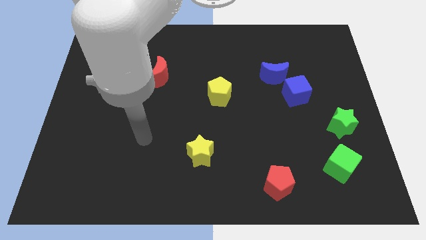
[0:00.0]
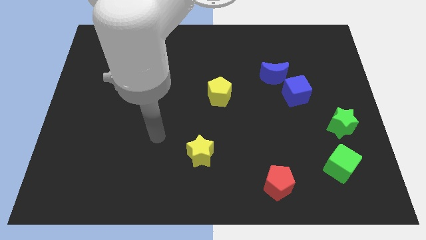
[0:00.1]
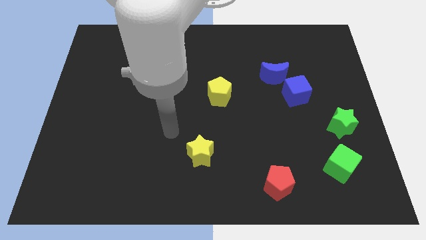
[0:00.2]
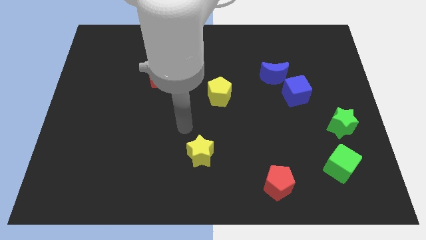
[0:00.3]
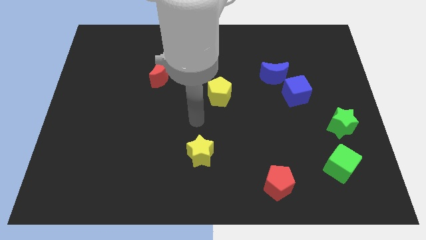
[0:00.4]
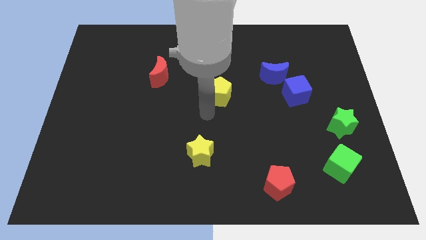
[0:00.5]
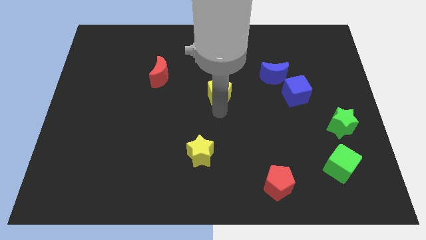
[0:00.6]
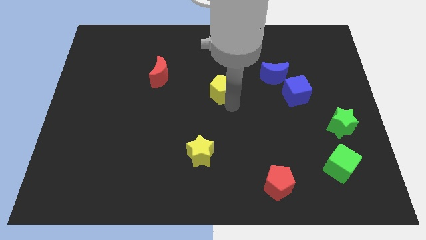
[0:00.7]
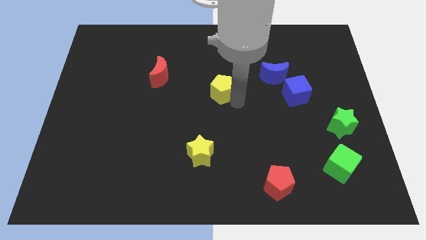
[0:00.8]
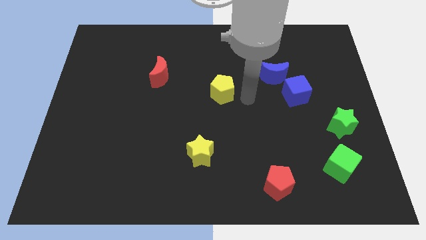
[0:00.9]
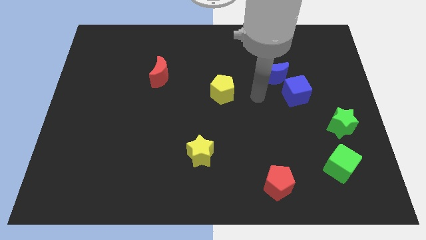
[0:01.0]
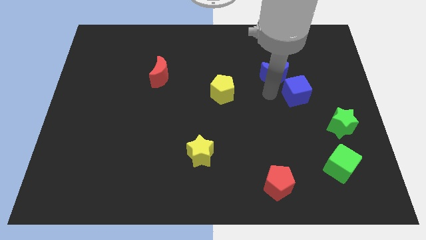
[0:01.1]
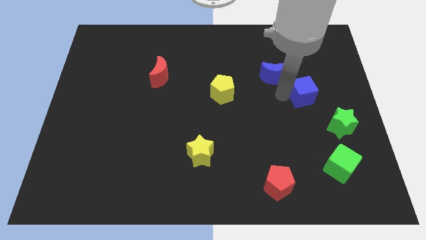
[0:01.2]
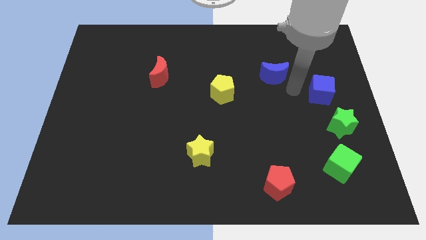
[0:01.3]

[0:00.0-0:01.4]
move the blue moon away from the blue cube

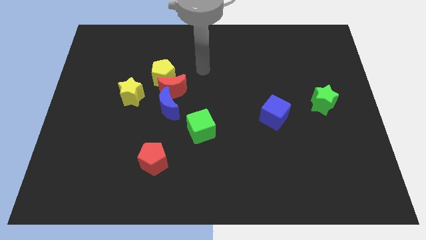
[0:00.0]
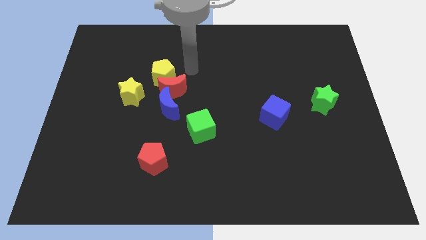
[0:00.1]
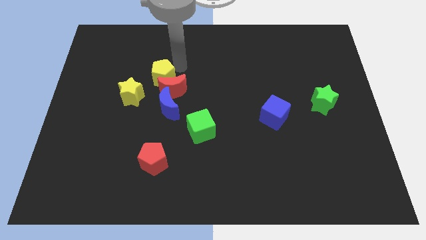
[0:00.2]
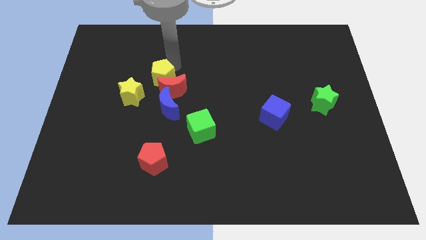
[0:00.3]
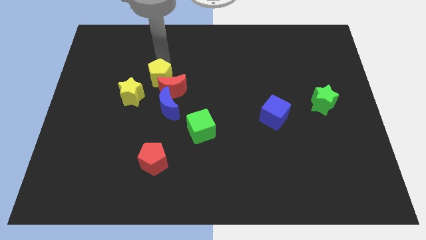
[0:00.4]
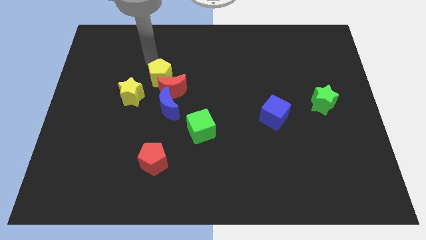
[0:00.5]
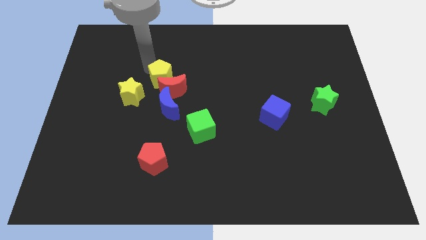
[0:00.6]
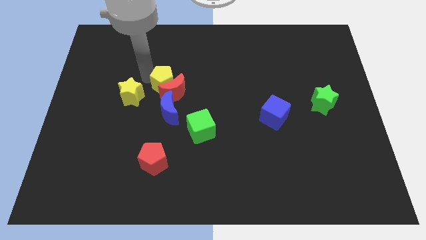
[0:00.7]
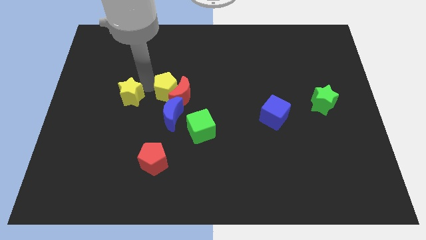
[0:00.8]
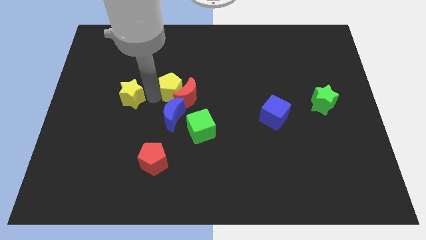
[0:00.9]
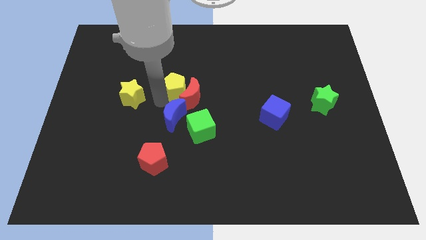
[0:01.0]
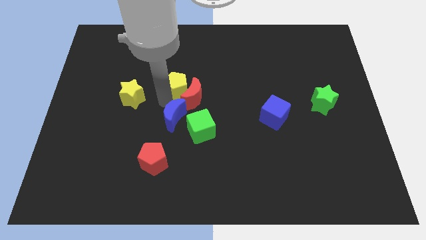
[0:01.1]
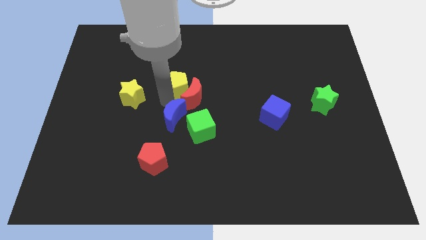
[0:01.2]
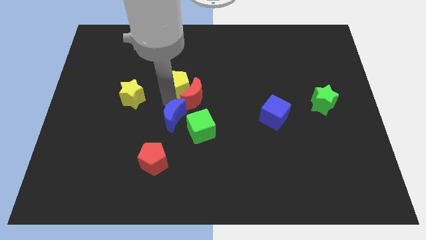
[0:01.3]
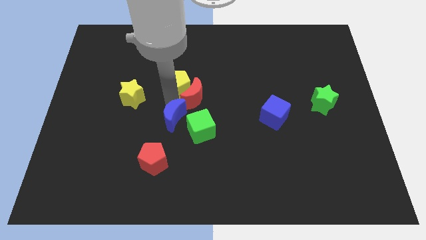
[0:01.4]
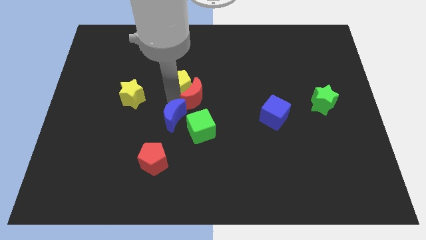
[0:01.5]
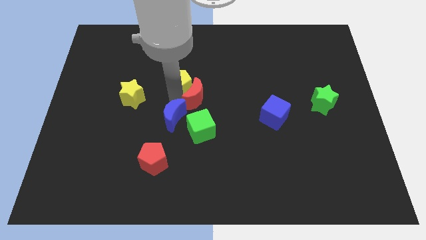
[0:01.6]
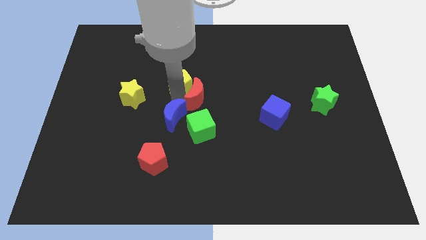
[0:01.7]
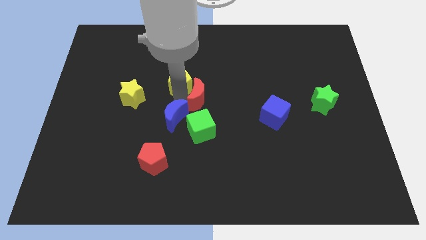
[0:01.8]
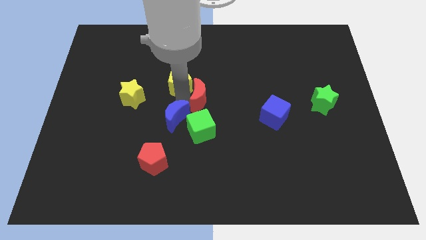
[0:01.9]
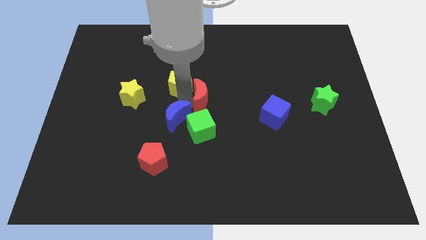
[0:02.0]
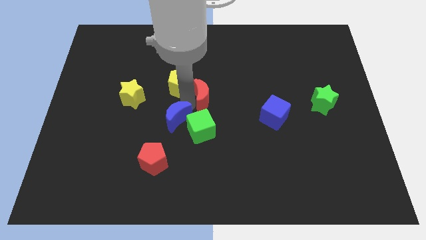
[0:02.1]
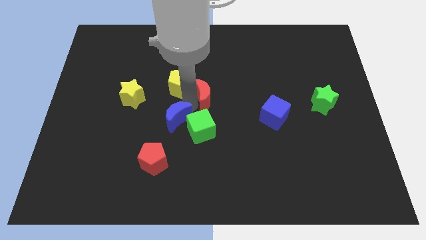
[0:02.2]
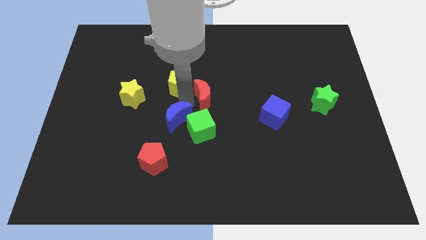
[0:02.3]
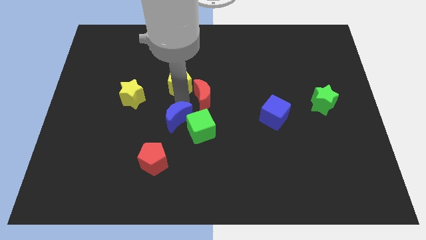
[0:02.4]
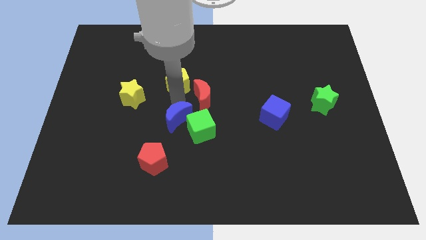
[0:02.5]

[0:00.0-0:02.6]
pull the red moon apart from the yellow pentagon, blue moon, and yellow star

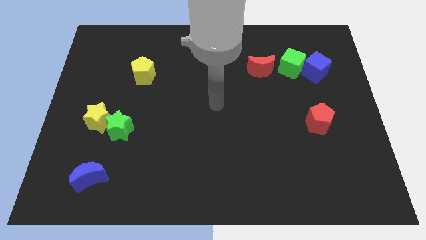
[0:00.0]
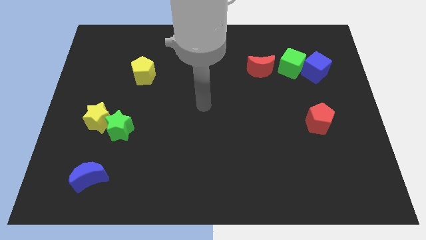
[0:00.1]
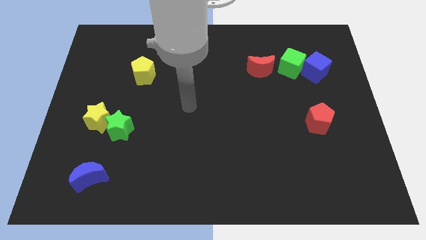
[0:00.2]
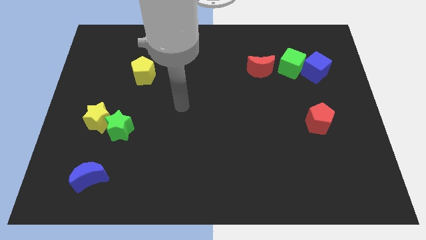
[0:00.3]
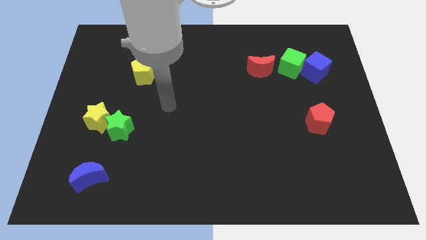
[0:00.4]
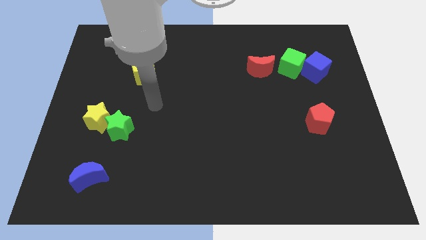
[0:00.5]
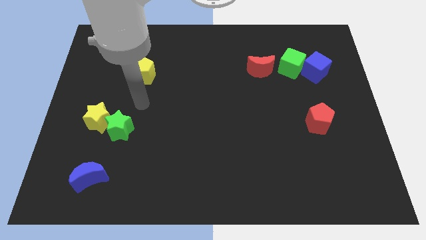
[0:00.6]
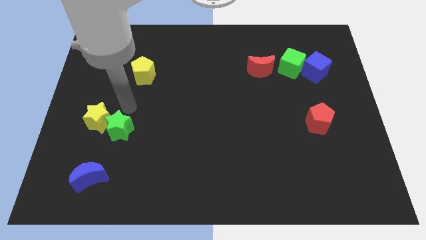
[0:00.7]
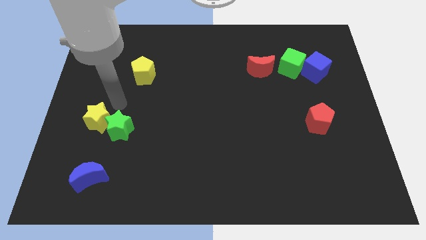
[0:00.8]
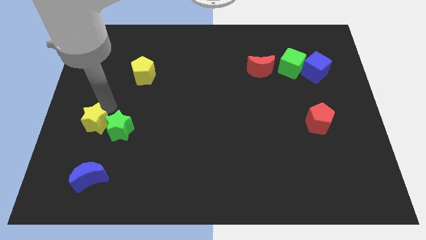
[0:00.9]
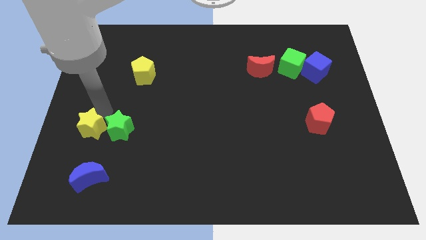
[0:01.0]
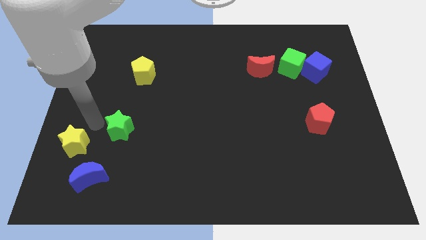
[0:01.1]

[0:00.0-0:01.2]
pull the green star apart from the yellow star

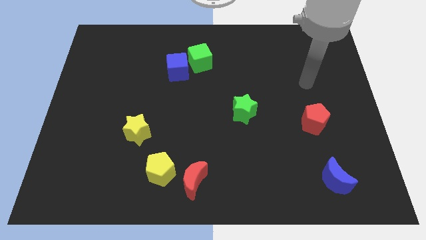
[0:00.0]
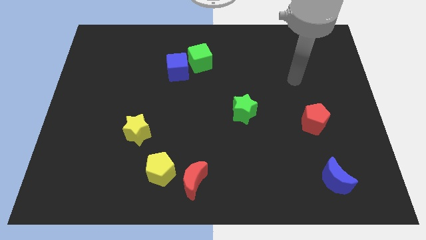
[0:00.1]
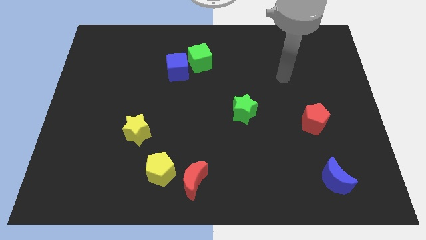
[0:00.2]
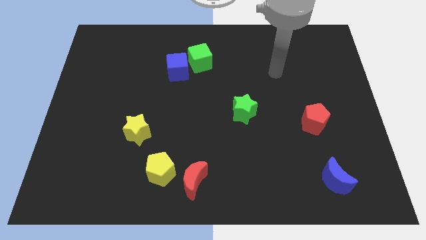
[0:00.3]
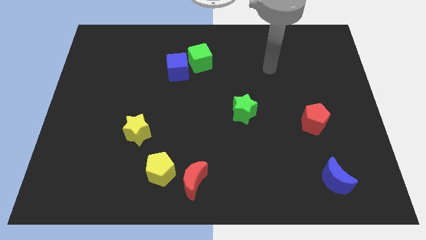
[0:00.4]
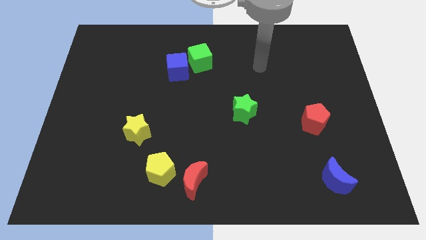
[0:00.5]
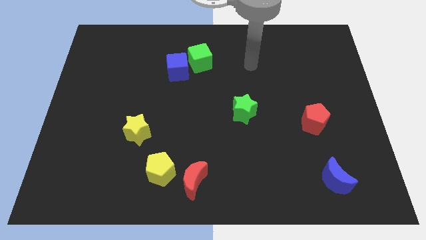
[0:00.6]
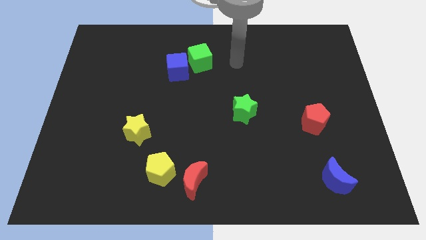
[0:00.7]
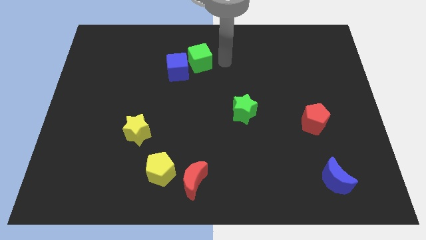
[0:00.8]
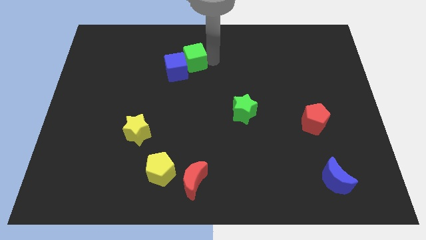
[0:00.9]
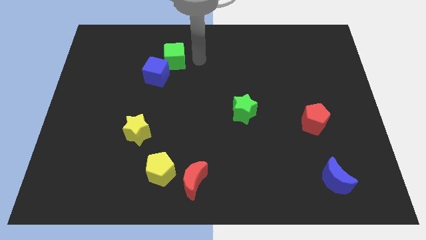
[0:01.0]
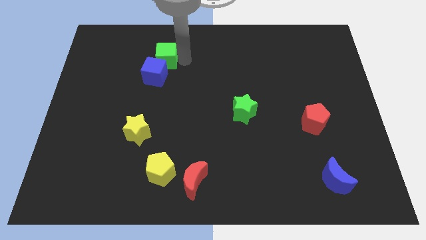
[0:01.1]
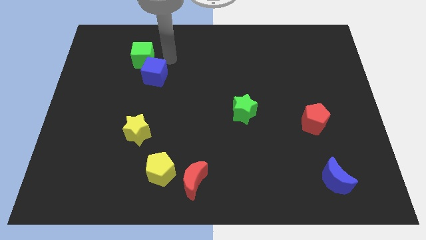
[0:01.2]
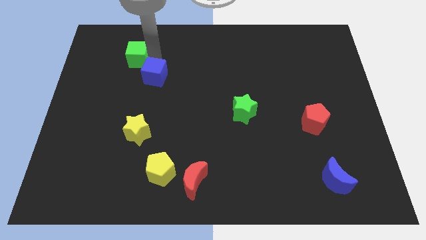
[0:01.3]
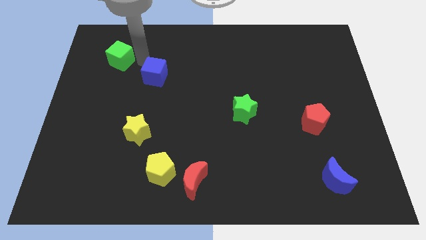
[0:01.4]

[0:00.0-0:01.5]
move the blue cube away from the green cube

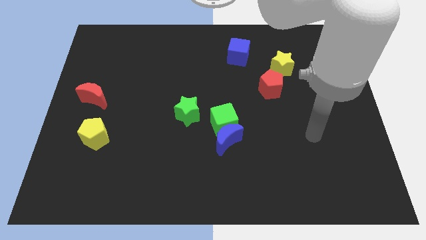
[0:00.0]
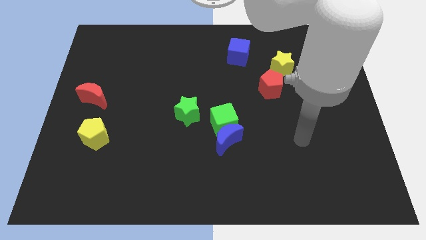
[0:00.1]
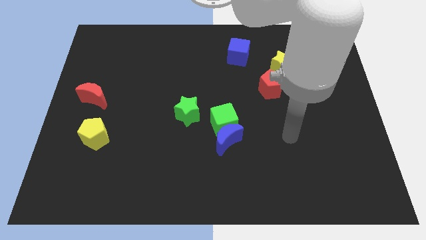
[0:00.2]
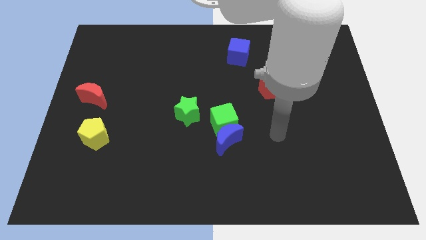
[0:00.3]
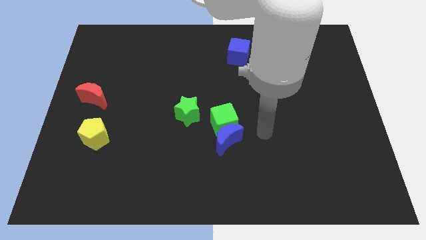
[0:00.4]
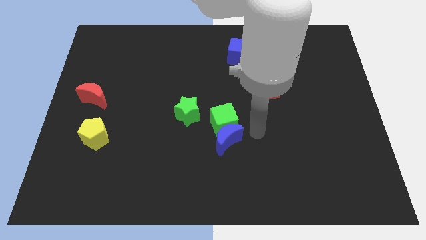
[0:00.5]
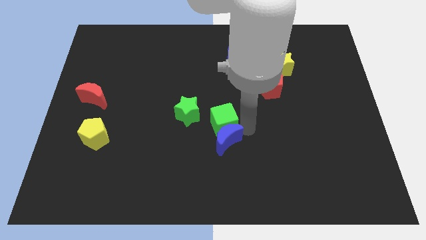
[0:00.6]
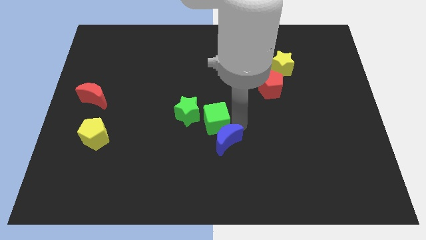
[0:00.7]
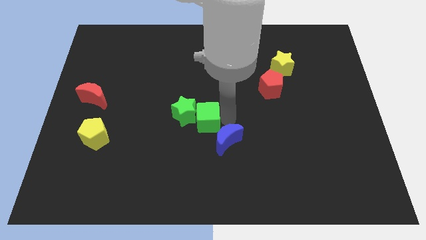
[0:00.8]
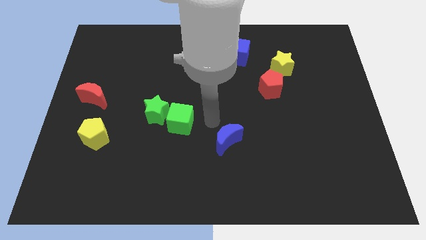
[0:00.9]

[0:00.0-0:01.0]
move the blue moon away from the green cube

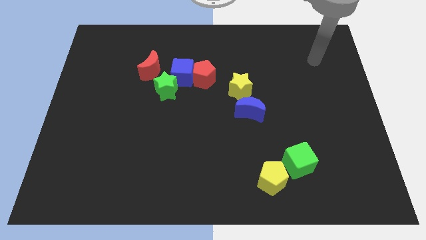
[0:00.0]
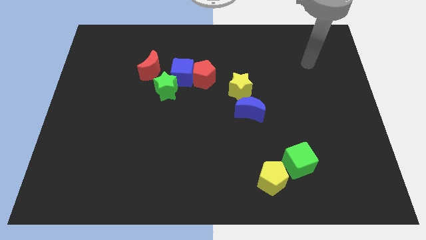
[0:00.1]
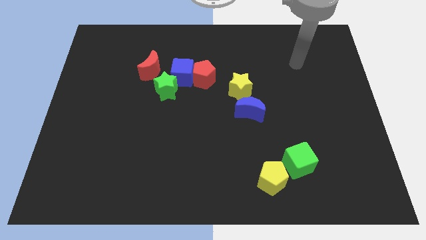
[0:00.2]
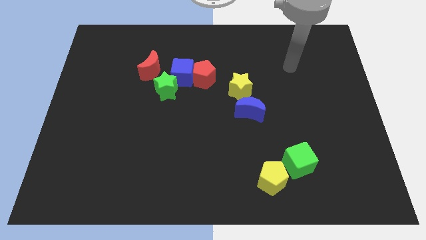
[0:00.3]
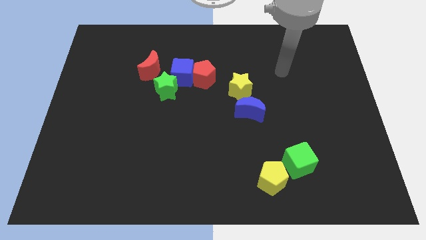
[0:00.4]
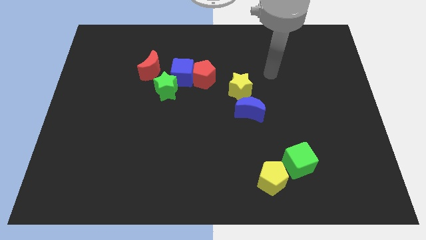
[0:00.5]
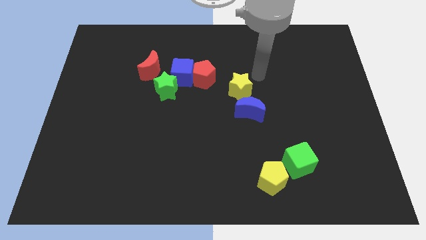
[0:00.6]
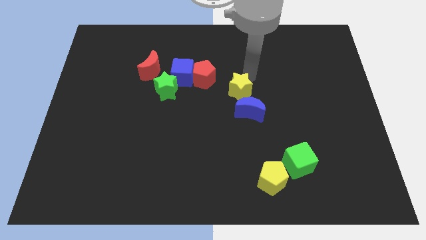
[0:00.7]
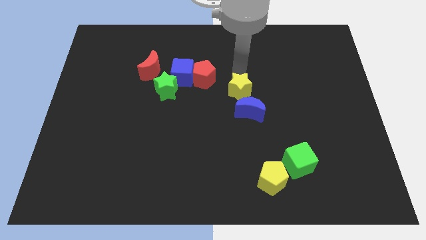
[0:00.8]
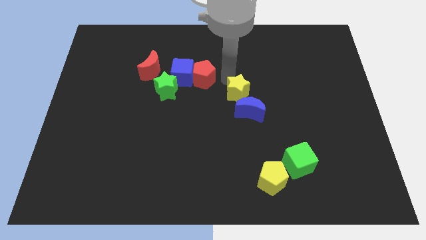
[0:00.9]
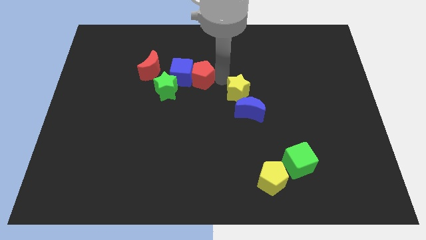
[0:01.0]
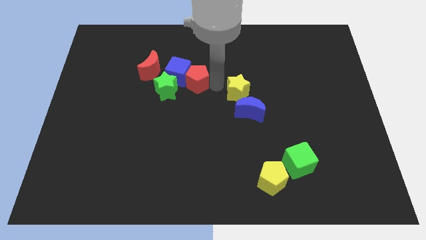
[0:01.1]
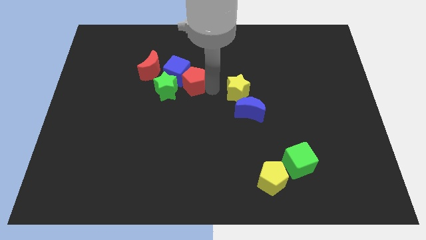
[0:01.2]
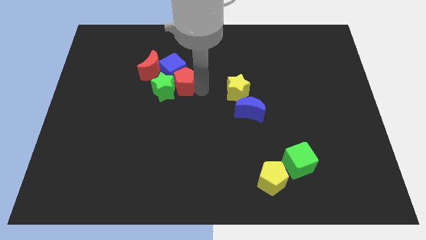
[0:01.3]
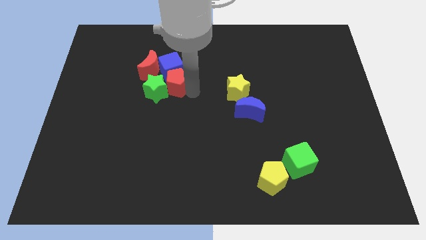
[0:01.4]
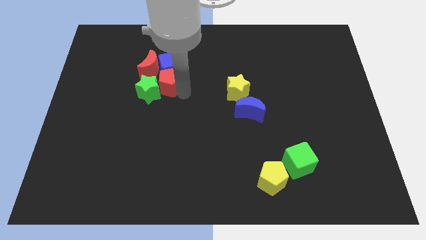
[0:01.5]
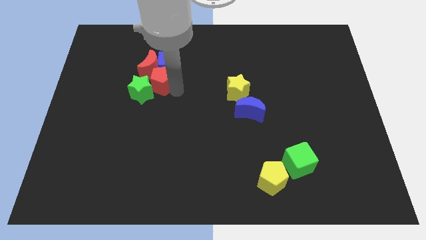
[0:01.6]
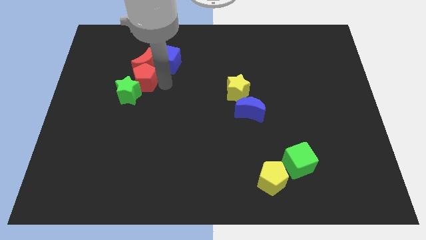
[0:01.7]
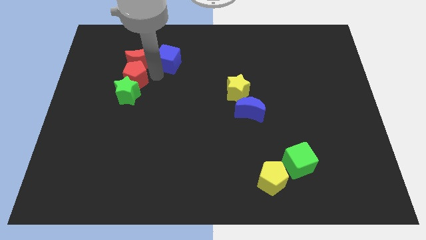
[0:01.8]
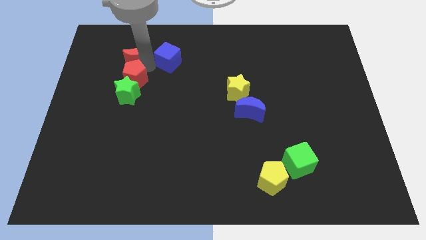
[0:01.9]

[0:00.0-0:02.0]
separate the blue cube from the group of blocks
